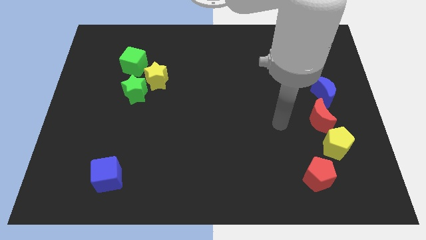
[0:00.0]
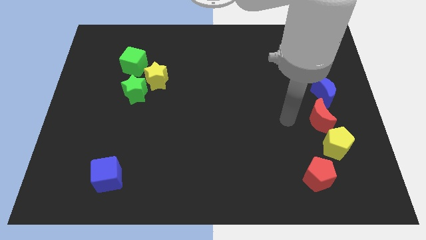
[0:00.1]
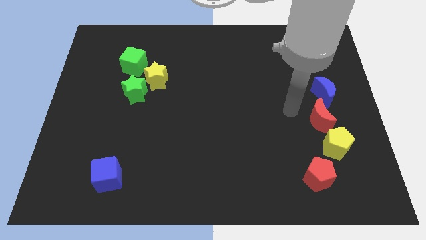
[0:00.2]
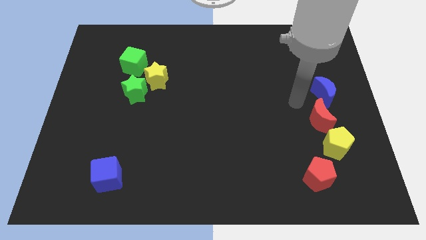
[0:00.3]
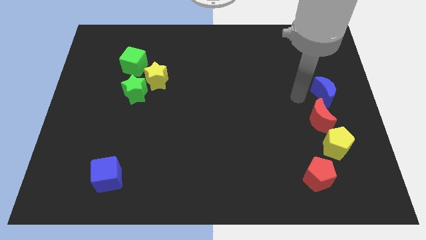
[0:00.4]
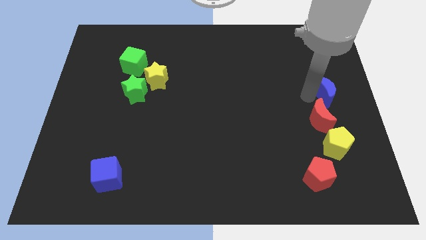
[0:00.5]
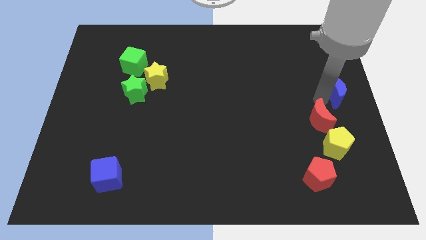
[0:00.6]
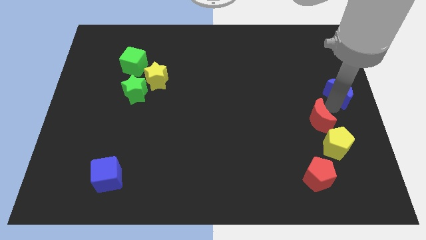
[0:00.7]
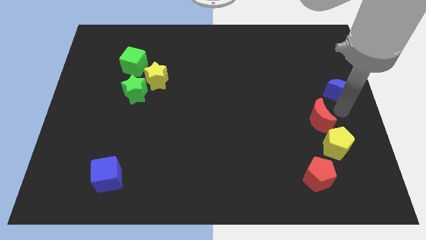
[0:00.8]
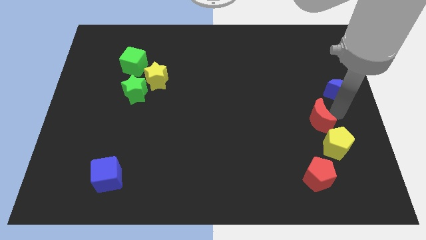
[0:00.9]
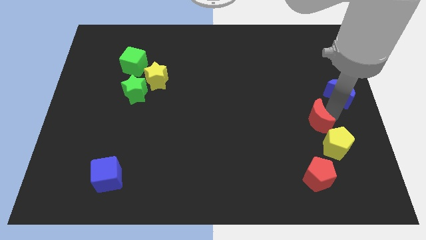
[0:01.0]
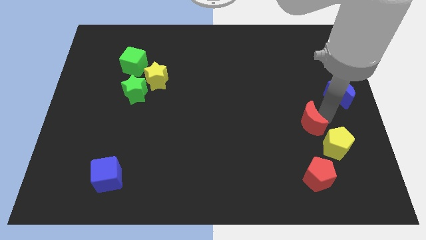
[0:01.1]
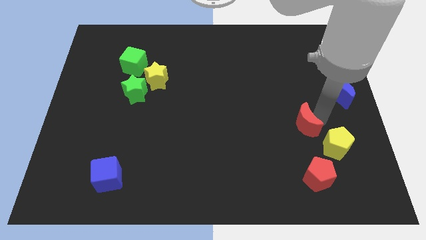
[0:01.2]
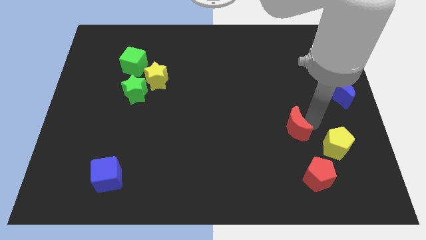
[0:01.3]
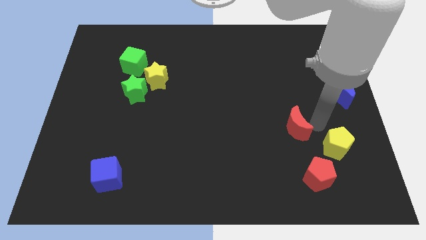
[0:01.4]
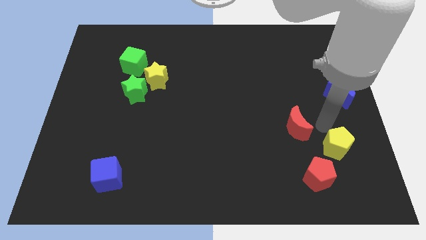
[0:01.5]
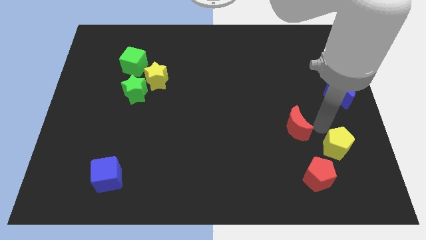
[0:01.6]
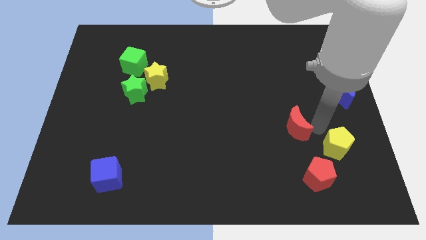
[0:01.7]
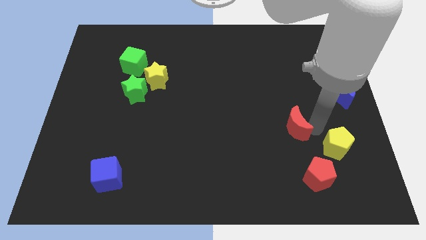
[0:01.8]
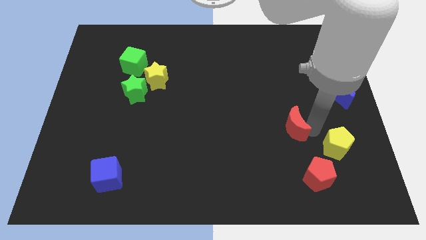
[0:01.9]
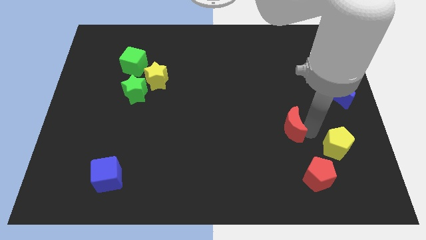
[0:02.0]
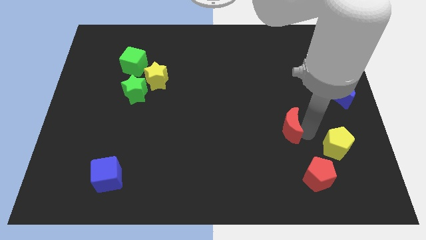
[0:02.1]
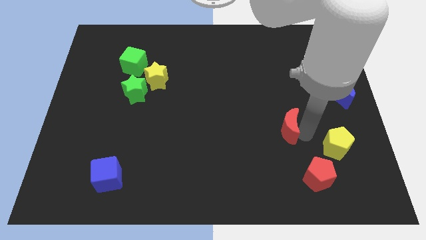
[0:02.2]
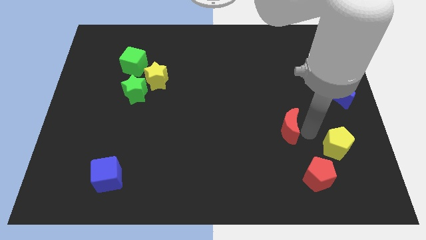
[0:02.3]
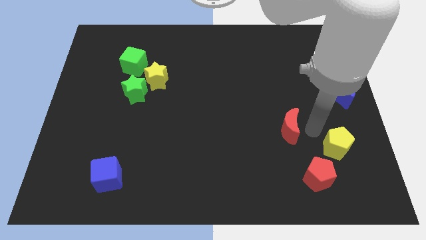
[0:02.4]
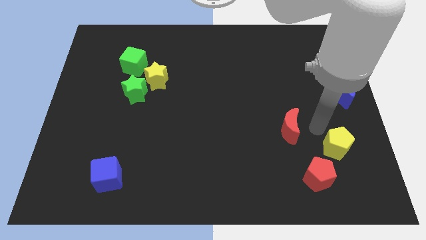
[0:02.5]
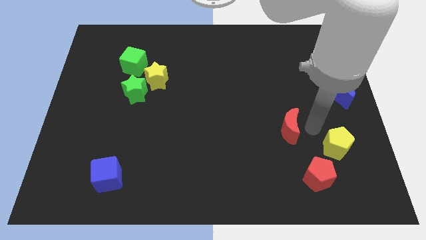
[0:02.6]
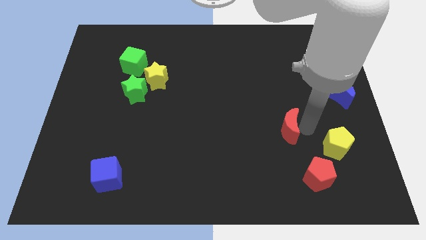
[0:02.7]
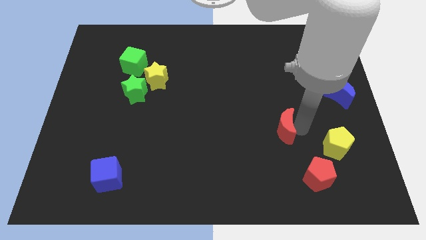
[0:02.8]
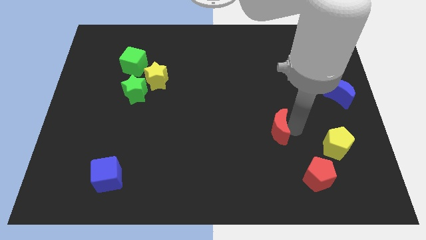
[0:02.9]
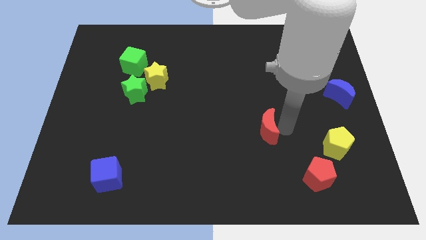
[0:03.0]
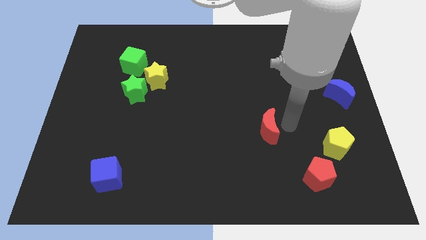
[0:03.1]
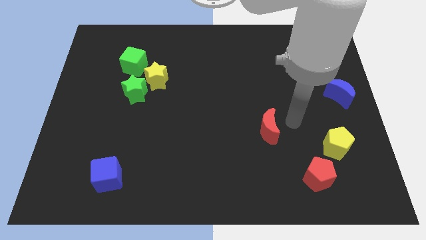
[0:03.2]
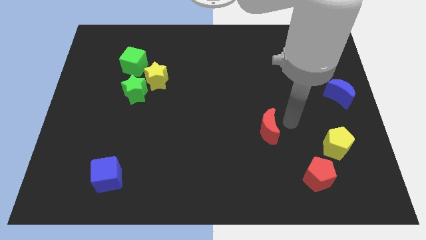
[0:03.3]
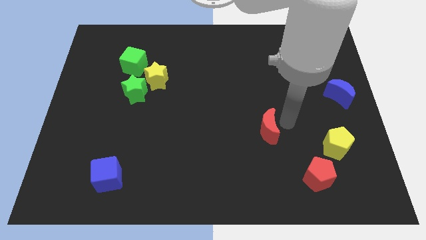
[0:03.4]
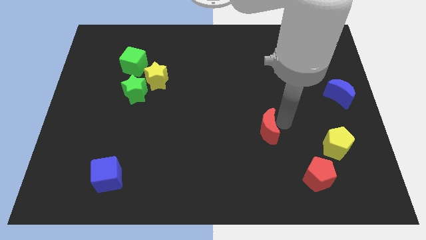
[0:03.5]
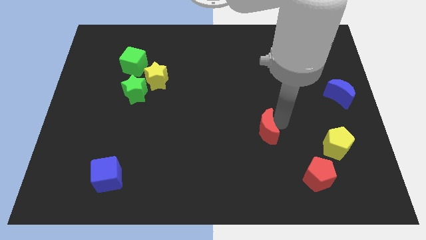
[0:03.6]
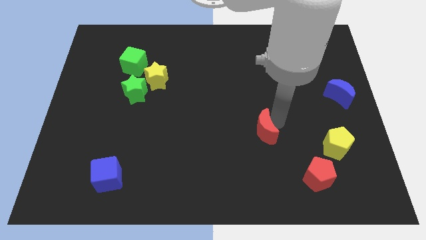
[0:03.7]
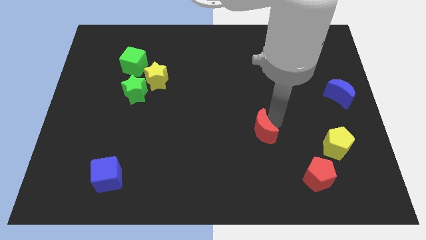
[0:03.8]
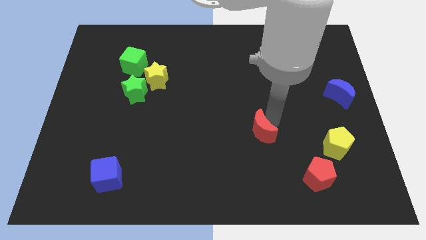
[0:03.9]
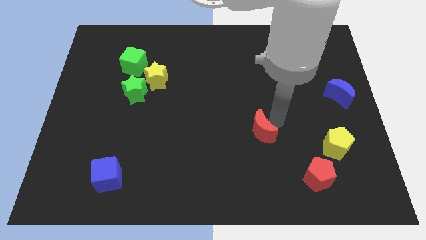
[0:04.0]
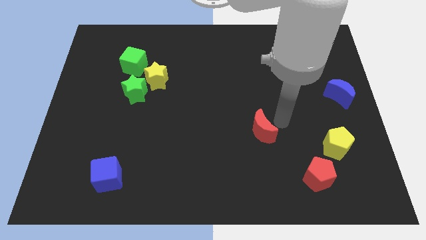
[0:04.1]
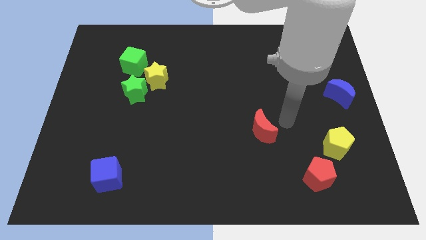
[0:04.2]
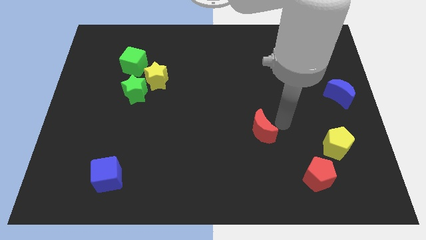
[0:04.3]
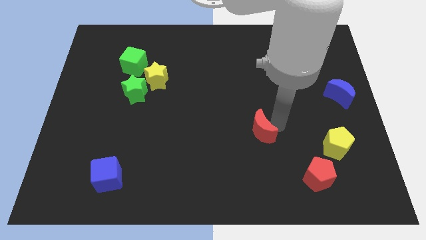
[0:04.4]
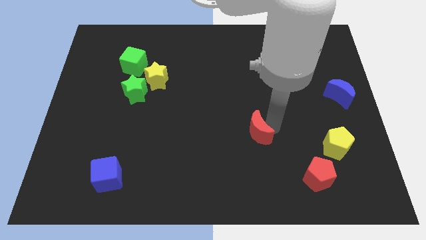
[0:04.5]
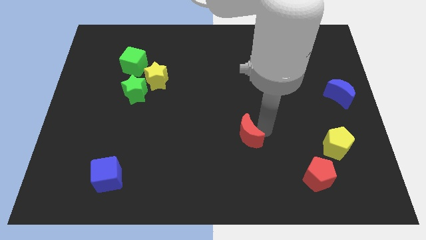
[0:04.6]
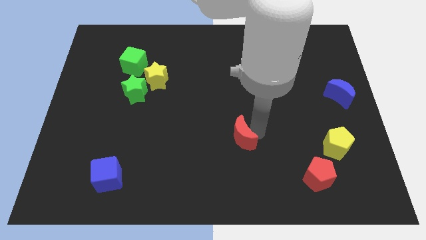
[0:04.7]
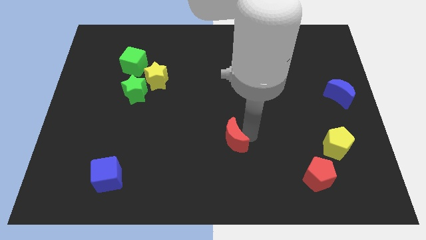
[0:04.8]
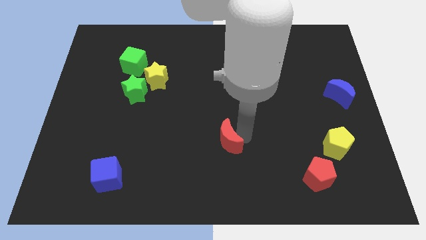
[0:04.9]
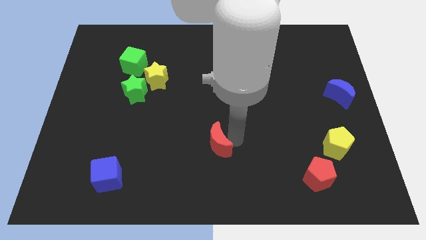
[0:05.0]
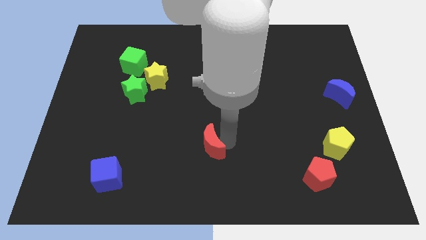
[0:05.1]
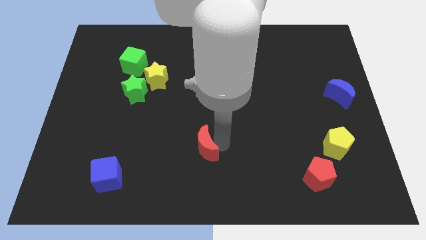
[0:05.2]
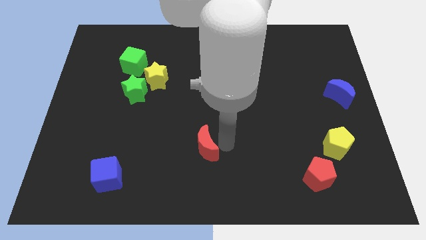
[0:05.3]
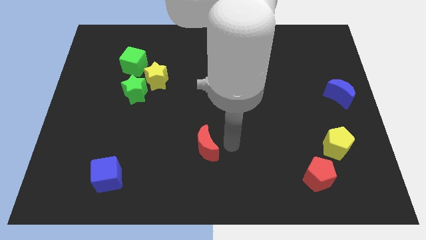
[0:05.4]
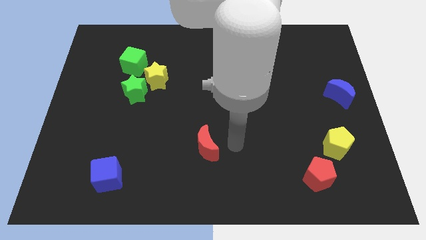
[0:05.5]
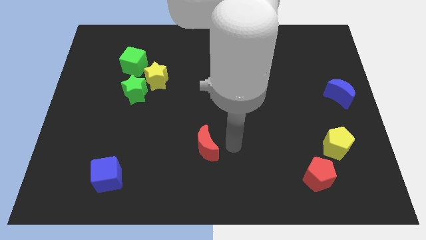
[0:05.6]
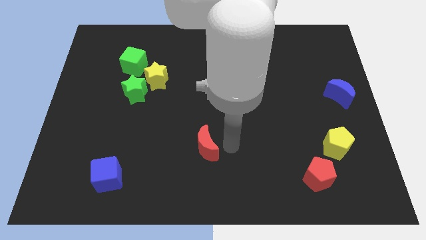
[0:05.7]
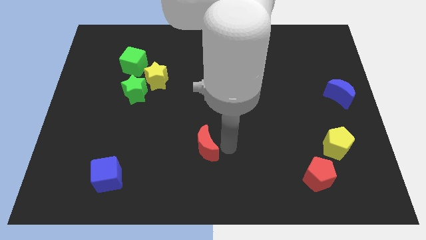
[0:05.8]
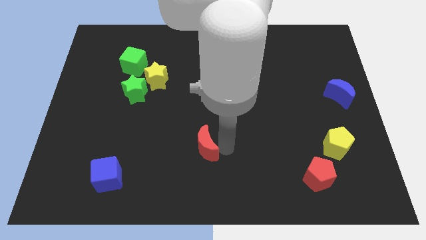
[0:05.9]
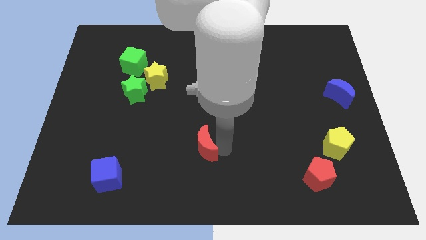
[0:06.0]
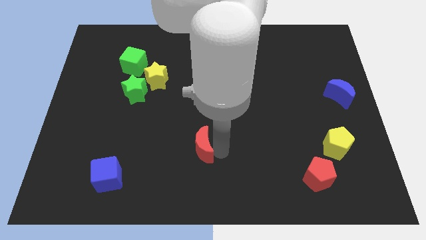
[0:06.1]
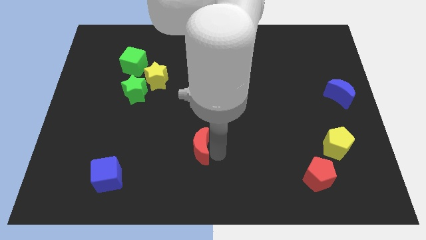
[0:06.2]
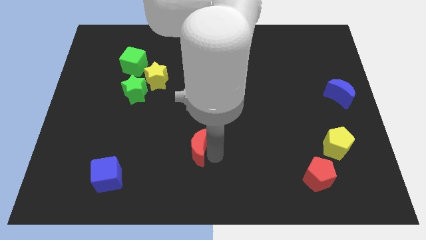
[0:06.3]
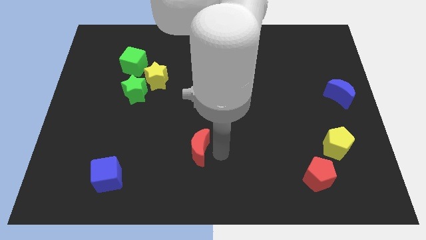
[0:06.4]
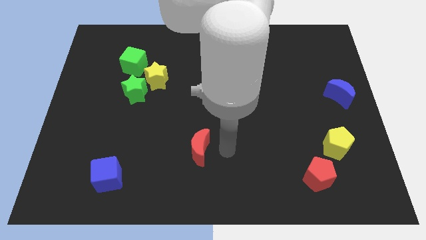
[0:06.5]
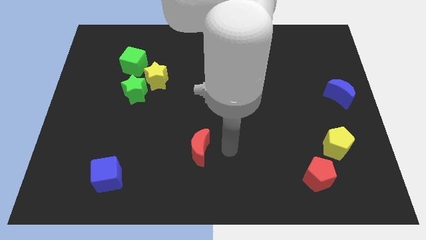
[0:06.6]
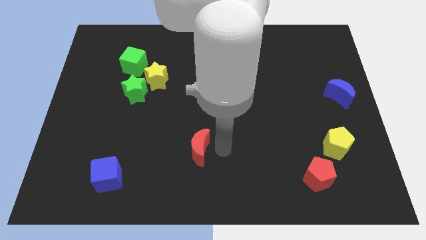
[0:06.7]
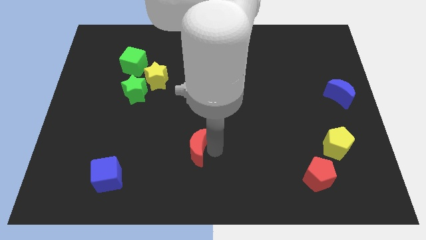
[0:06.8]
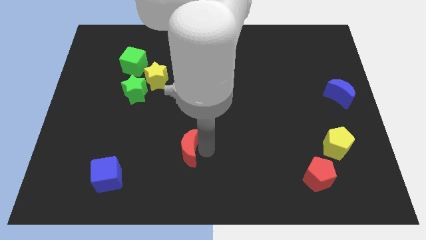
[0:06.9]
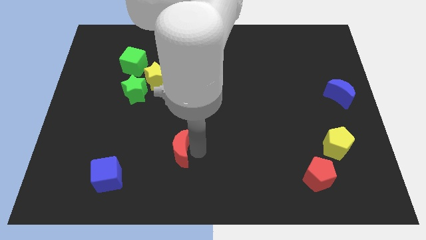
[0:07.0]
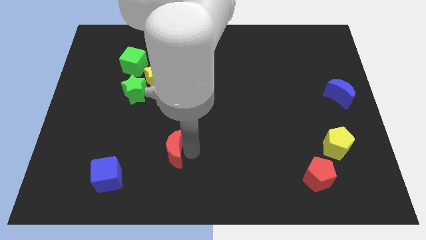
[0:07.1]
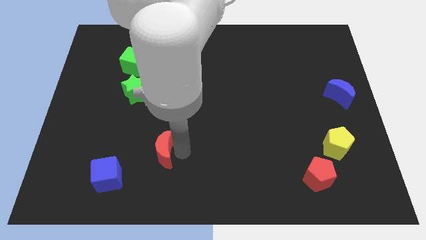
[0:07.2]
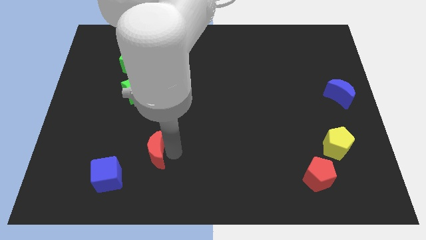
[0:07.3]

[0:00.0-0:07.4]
move the red moon to the top right of the blue cube
